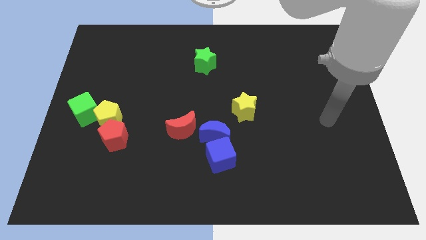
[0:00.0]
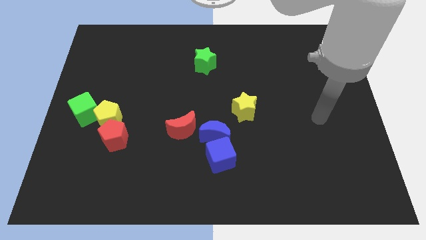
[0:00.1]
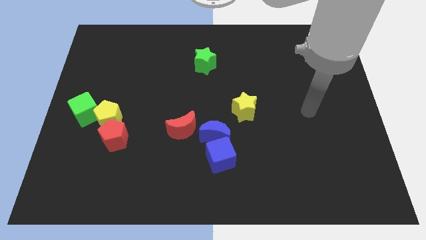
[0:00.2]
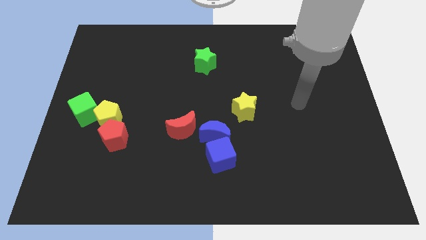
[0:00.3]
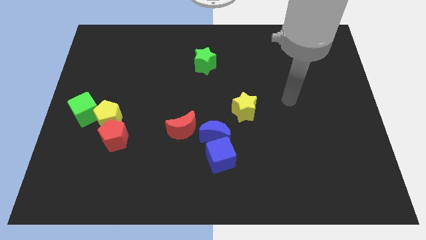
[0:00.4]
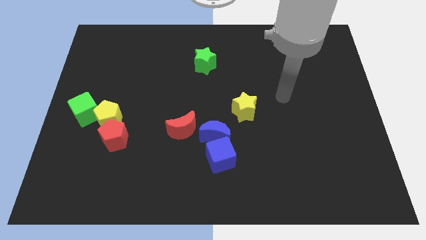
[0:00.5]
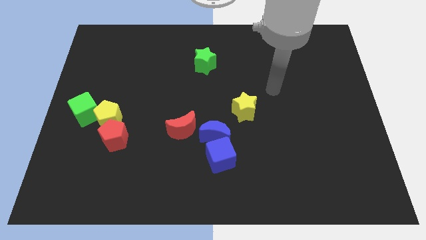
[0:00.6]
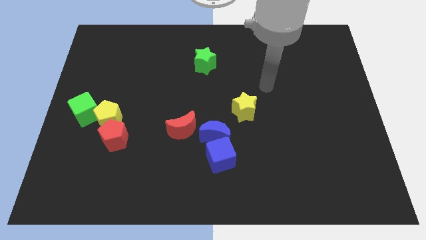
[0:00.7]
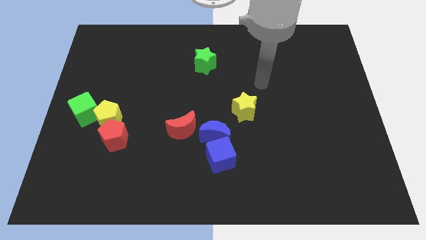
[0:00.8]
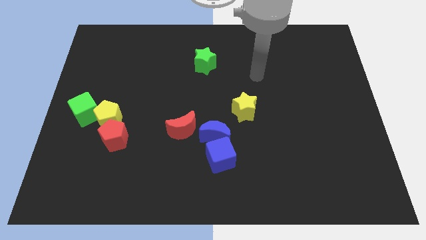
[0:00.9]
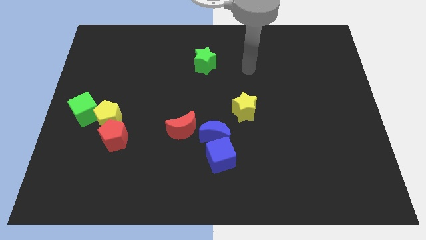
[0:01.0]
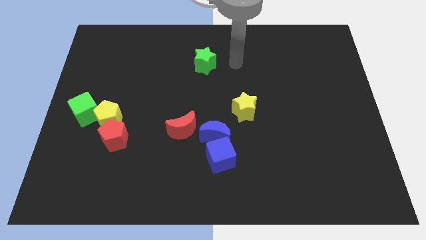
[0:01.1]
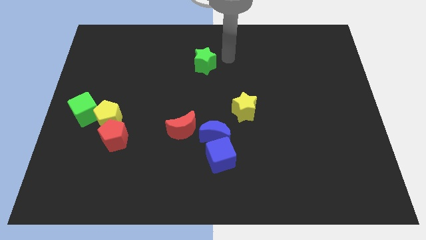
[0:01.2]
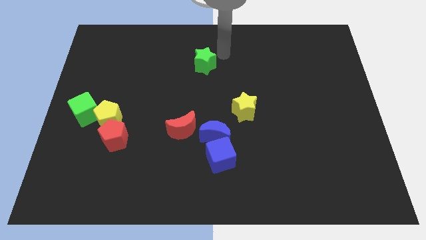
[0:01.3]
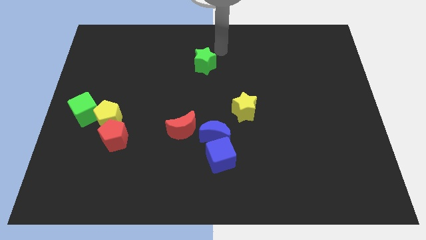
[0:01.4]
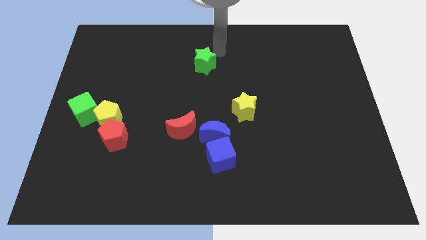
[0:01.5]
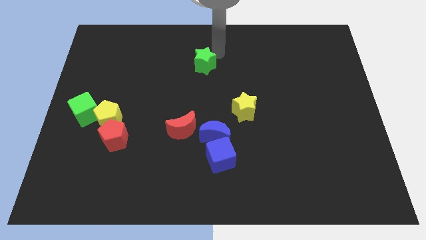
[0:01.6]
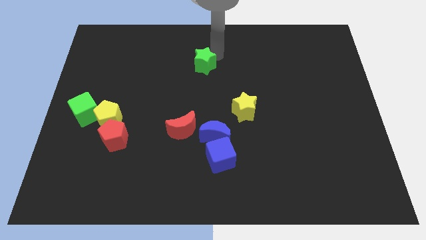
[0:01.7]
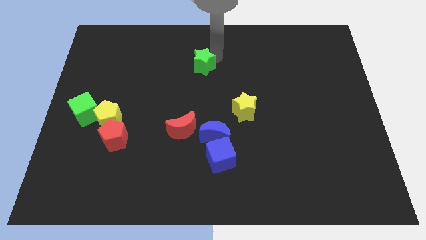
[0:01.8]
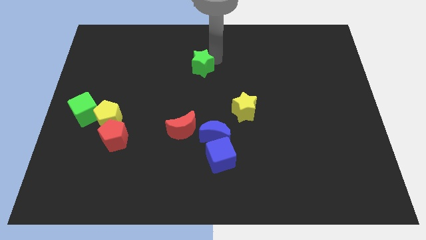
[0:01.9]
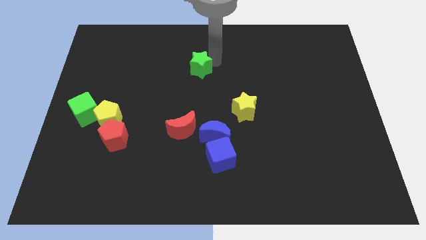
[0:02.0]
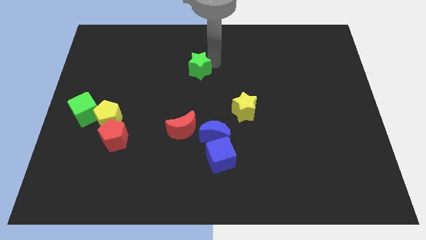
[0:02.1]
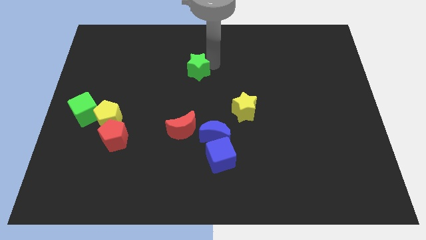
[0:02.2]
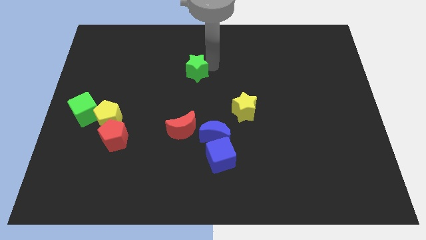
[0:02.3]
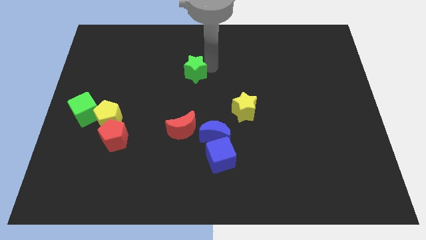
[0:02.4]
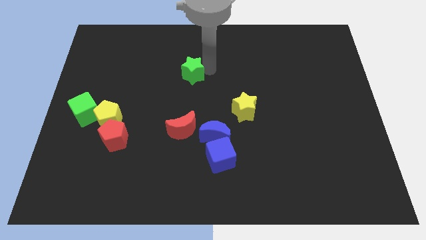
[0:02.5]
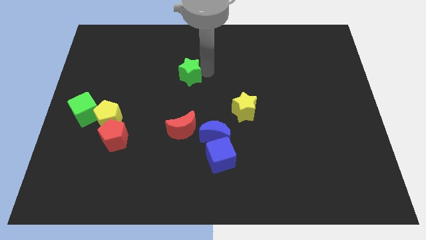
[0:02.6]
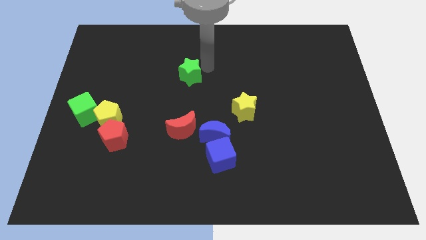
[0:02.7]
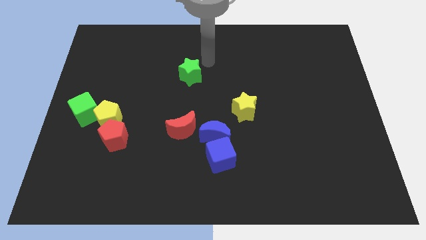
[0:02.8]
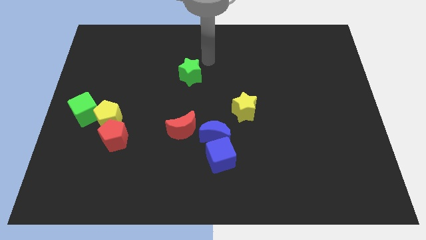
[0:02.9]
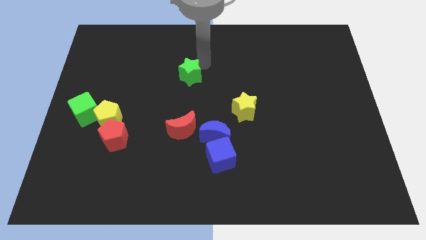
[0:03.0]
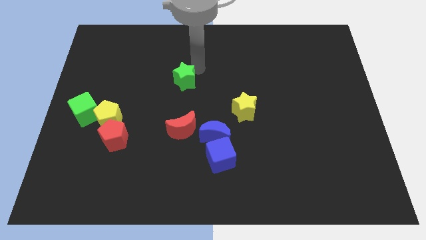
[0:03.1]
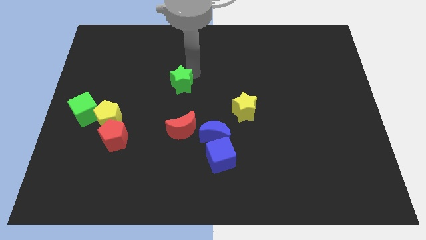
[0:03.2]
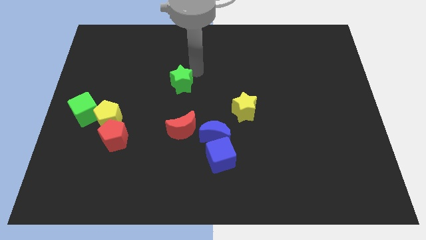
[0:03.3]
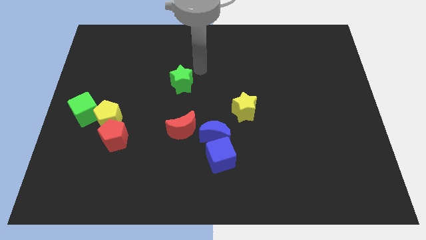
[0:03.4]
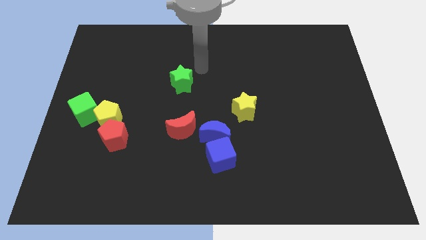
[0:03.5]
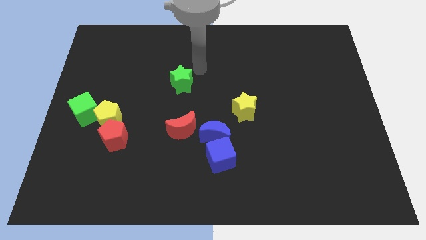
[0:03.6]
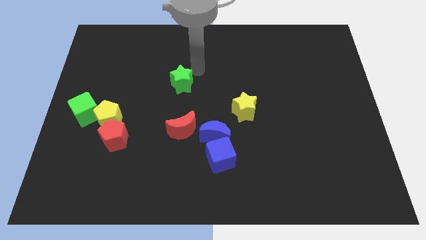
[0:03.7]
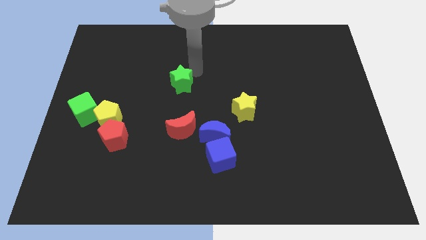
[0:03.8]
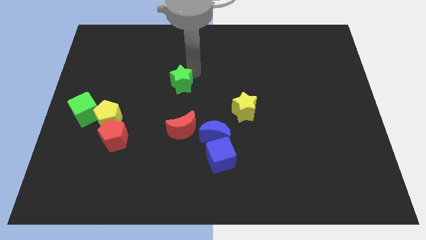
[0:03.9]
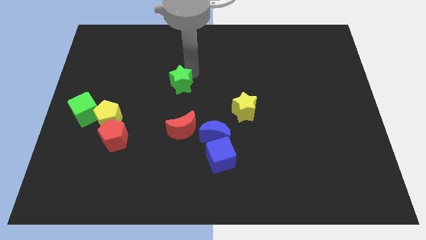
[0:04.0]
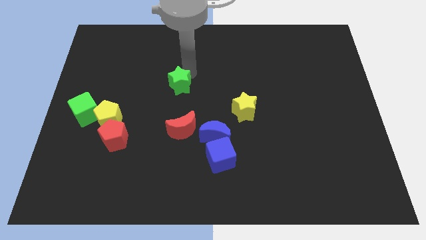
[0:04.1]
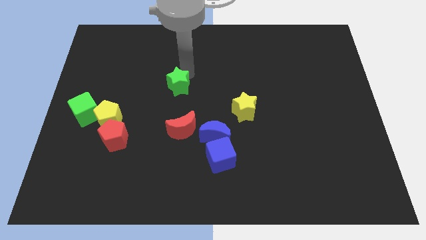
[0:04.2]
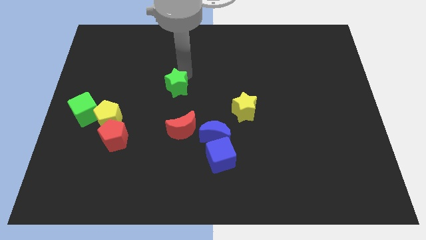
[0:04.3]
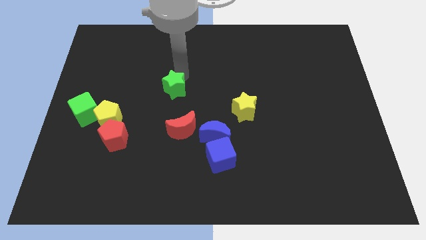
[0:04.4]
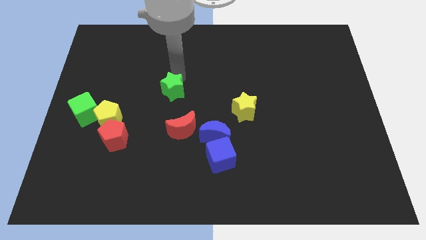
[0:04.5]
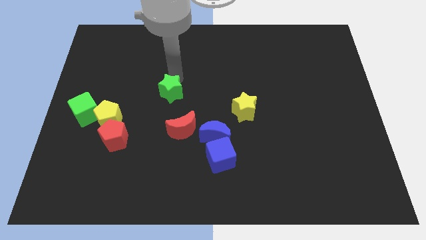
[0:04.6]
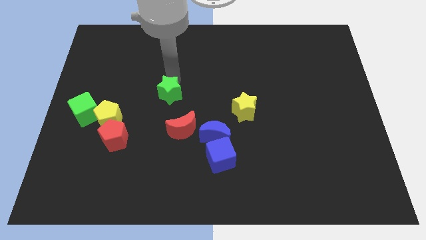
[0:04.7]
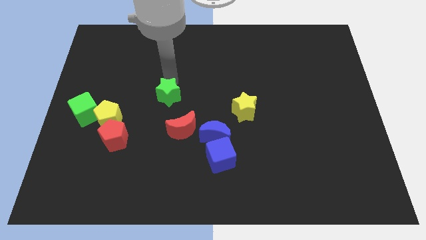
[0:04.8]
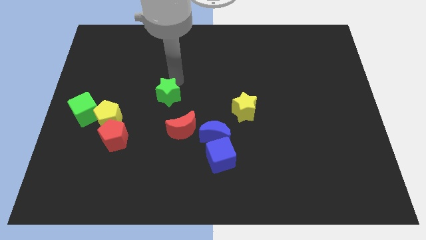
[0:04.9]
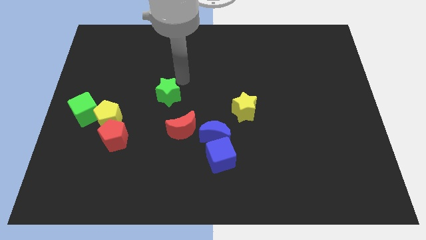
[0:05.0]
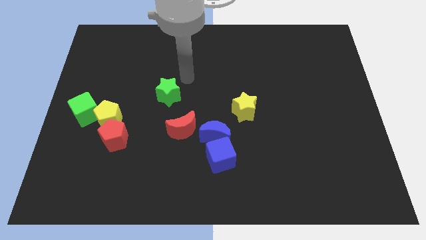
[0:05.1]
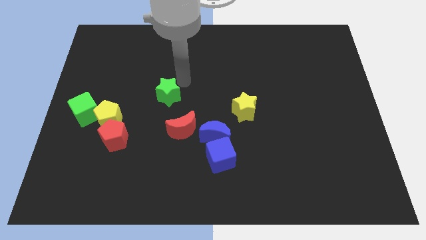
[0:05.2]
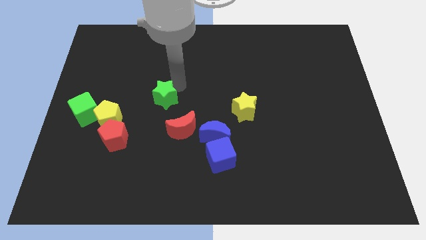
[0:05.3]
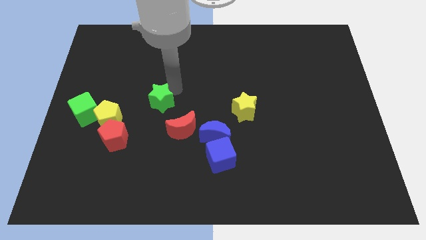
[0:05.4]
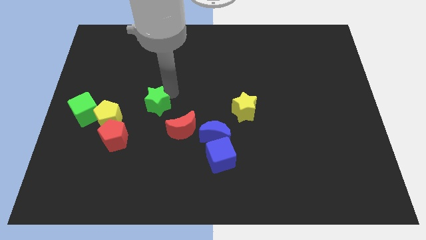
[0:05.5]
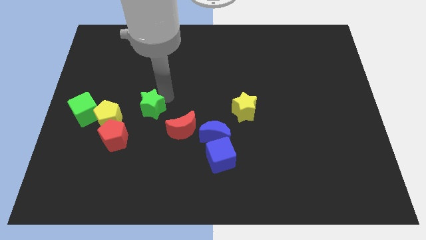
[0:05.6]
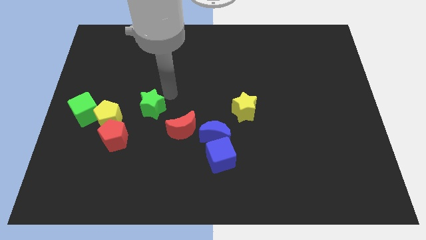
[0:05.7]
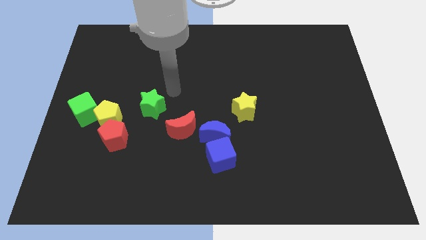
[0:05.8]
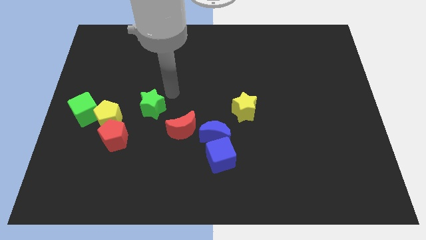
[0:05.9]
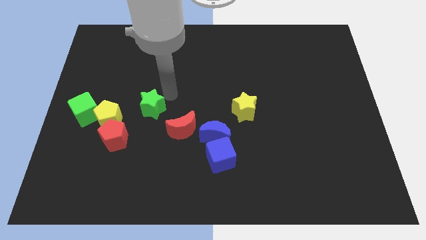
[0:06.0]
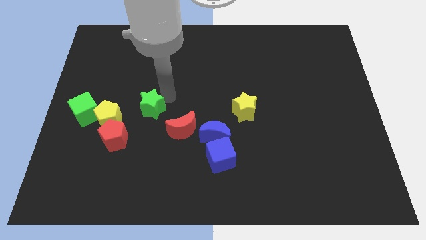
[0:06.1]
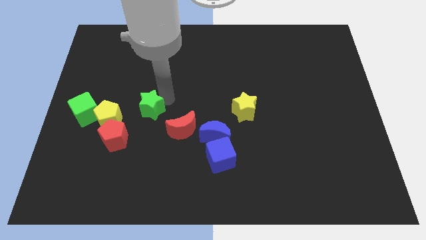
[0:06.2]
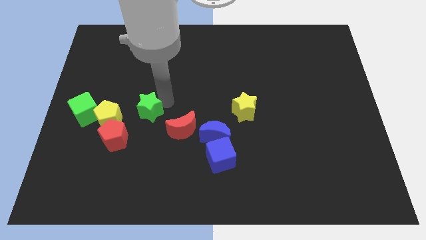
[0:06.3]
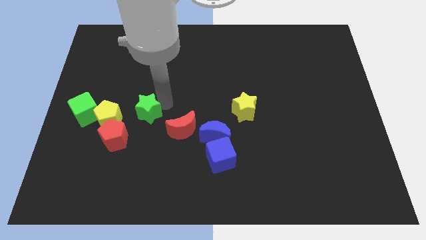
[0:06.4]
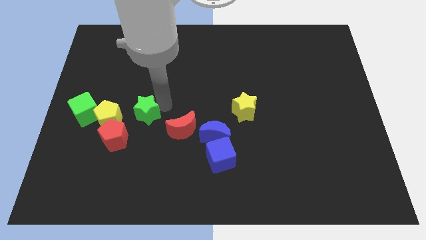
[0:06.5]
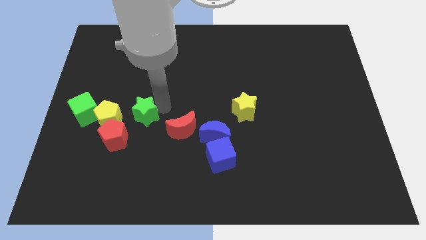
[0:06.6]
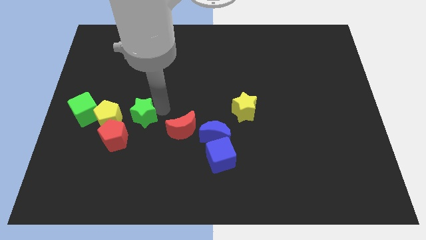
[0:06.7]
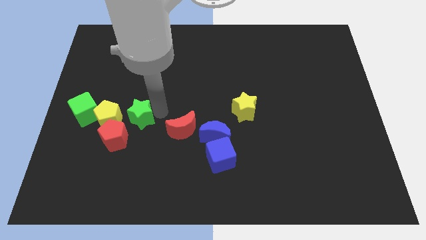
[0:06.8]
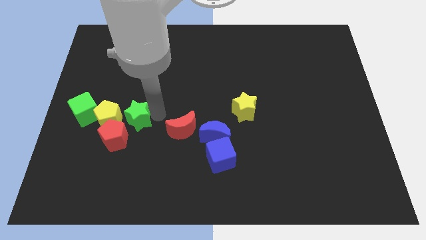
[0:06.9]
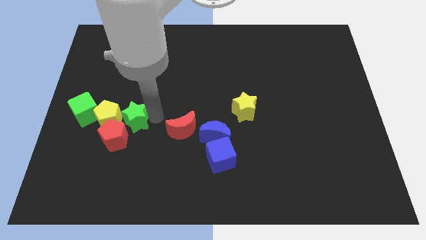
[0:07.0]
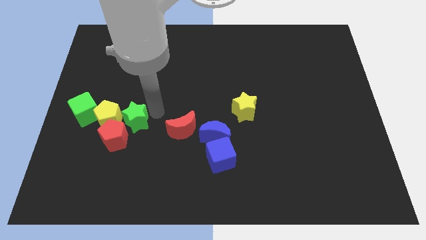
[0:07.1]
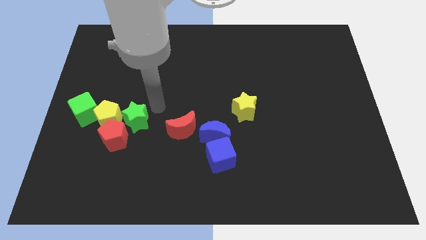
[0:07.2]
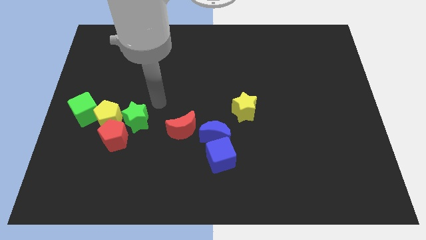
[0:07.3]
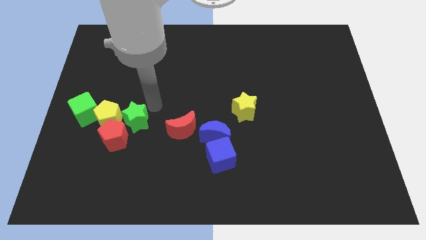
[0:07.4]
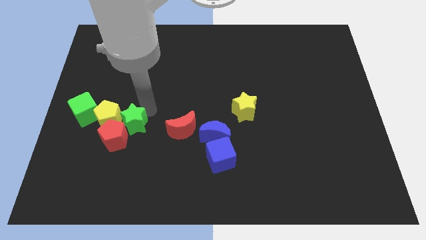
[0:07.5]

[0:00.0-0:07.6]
move the green star towards the red pentagon

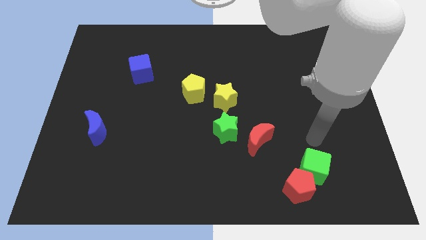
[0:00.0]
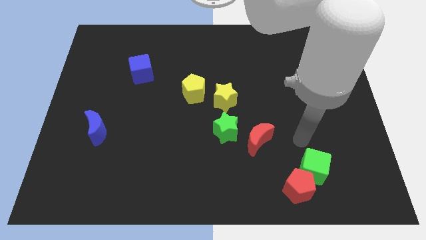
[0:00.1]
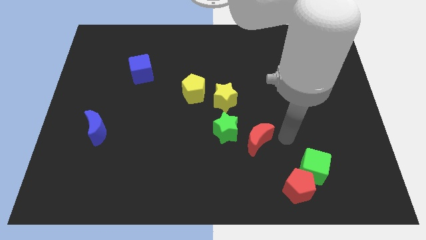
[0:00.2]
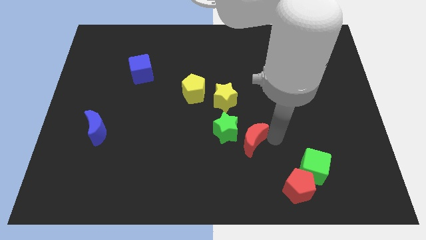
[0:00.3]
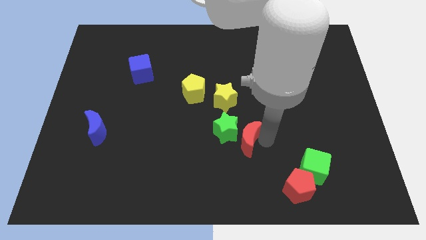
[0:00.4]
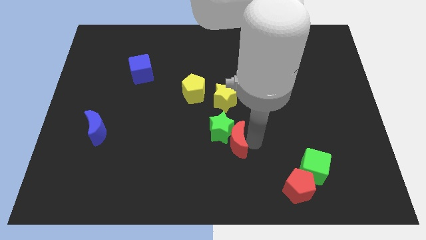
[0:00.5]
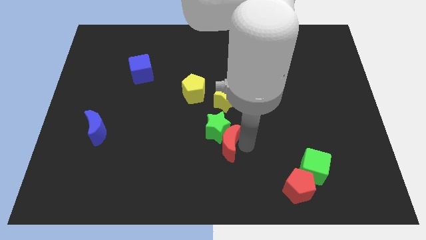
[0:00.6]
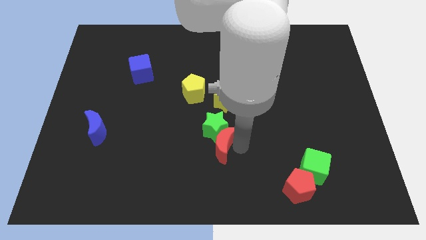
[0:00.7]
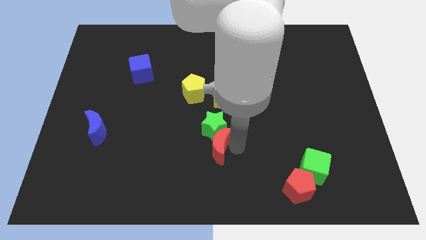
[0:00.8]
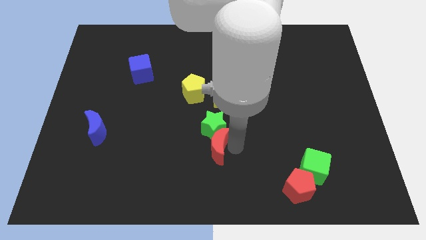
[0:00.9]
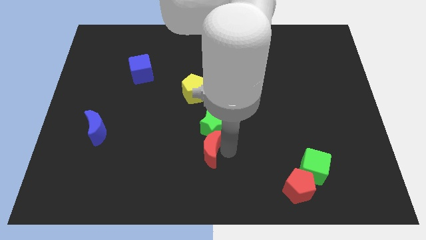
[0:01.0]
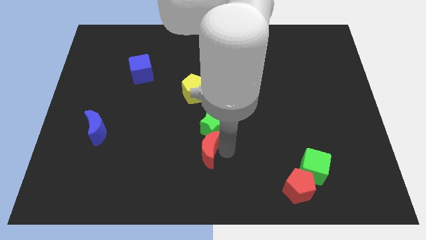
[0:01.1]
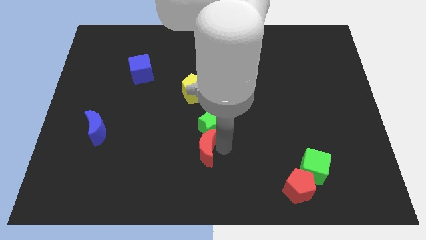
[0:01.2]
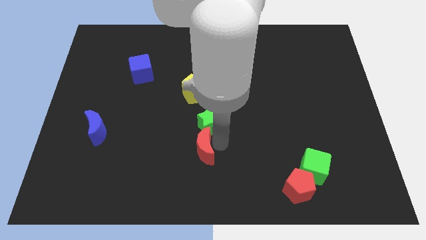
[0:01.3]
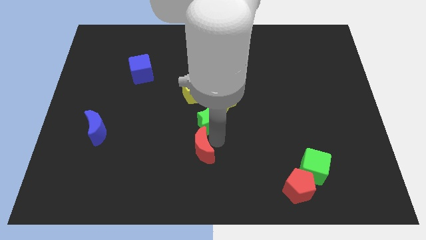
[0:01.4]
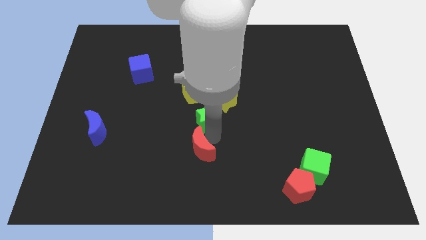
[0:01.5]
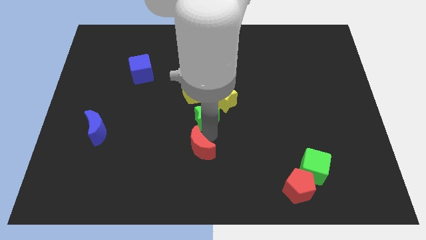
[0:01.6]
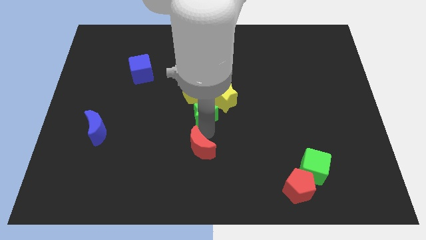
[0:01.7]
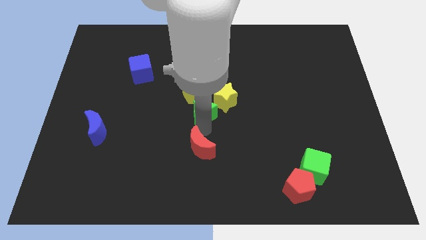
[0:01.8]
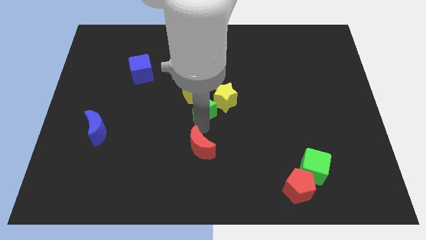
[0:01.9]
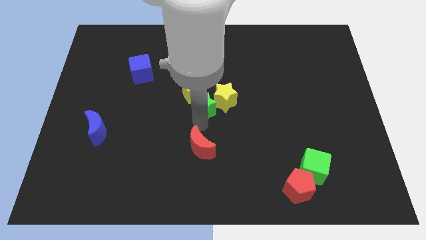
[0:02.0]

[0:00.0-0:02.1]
move the green star to the yellow pentagon
